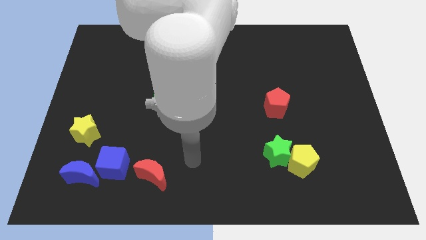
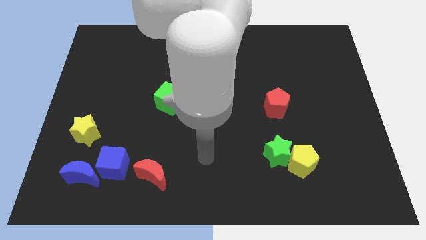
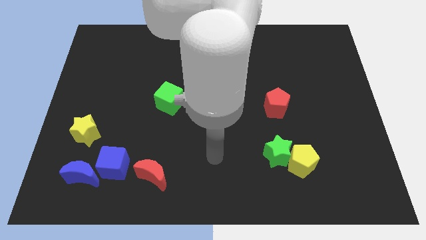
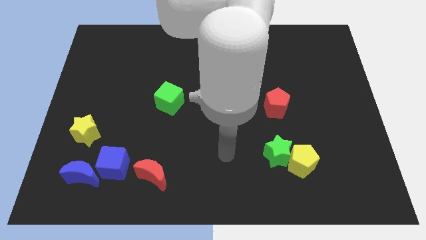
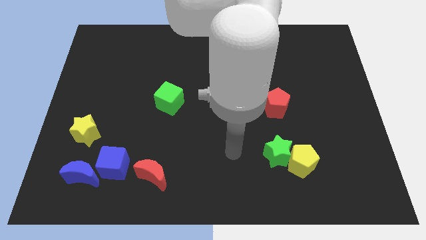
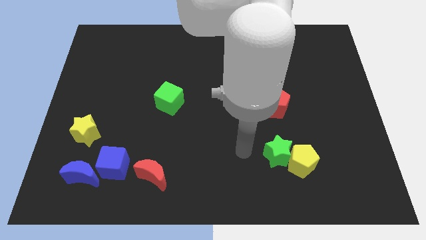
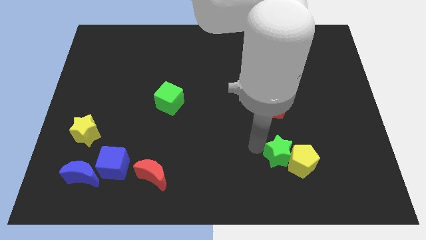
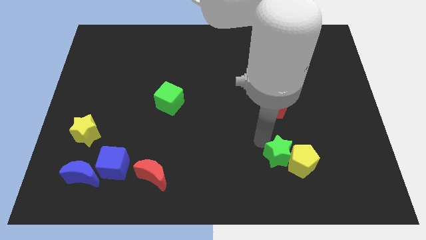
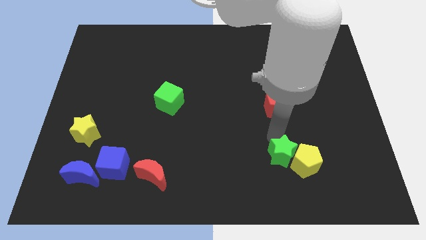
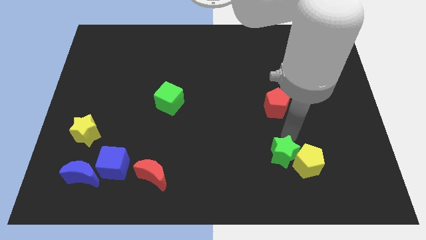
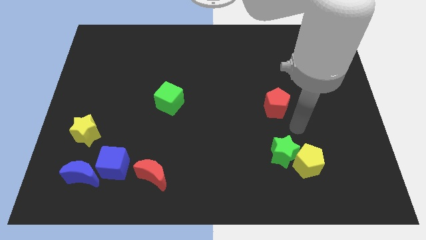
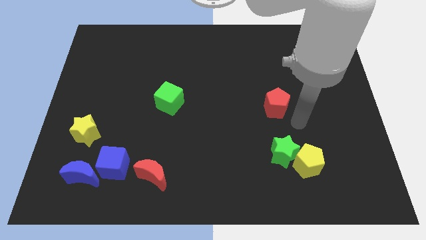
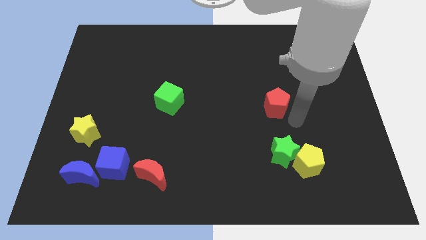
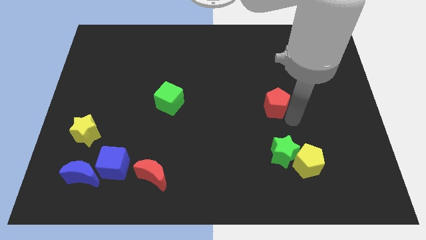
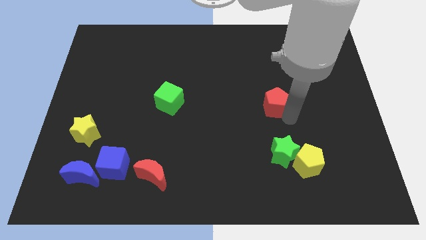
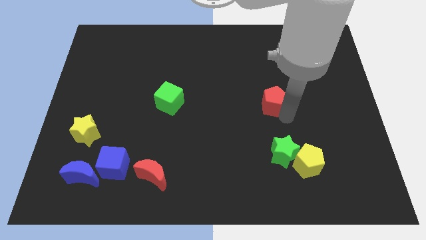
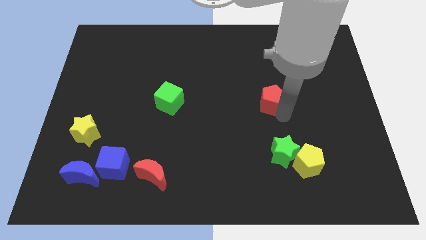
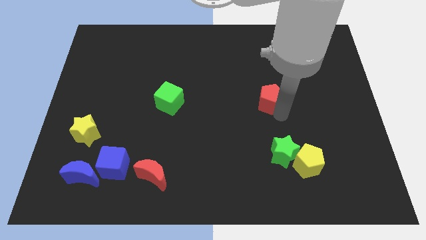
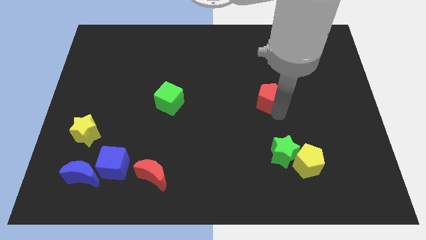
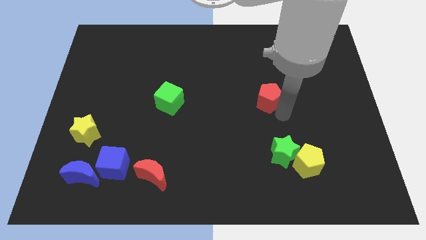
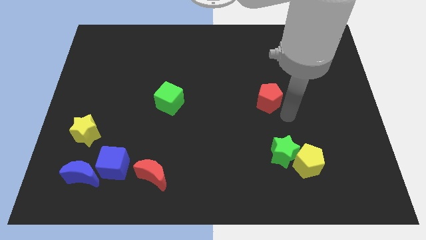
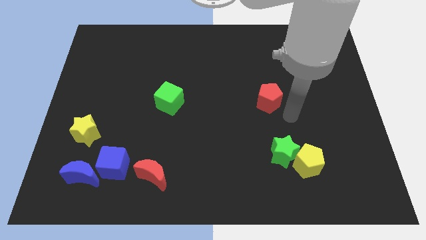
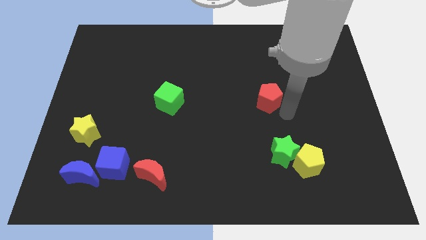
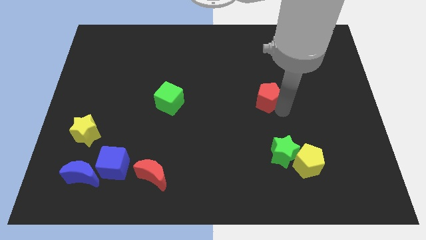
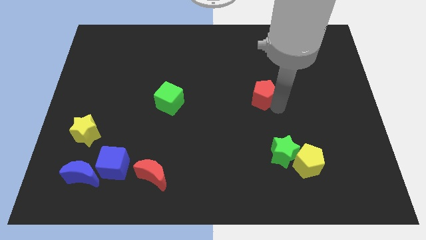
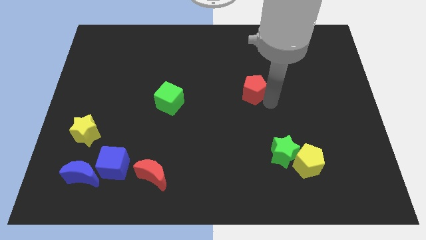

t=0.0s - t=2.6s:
move the red pentagon somewhat diagonally upwards and to the left

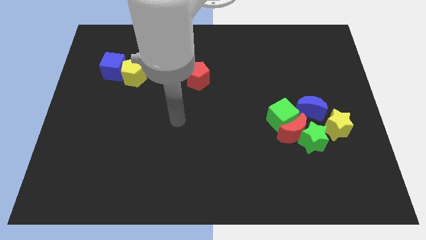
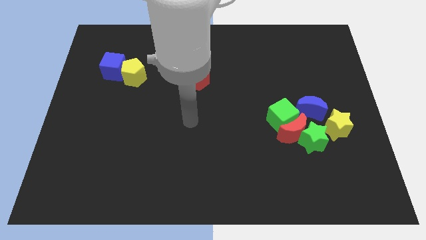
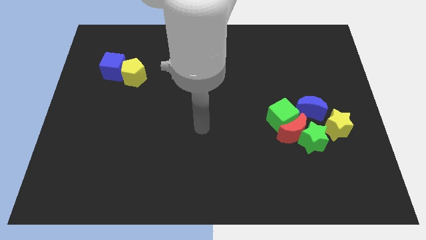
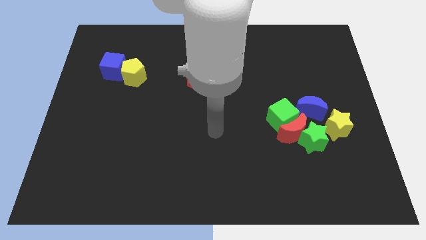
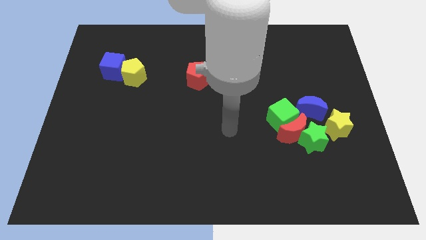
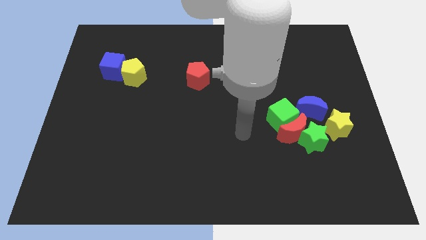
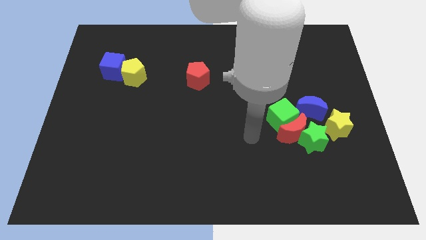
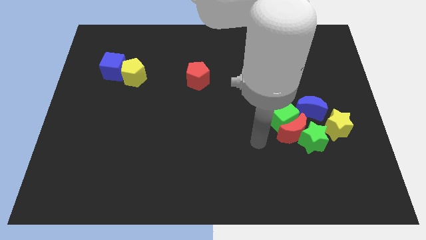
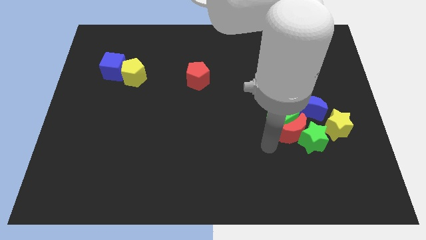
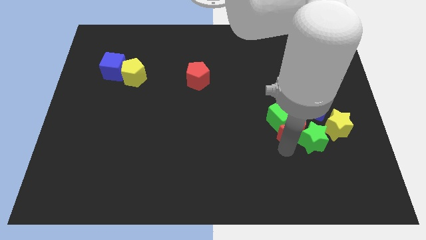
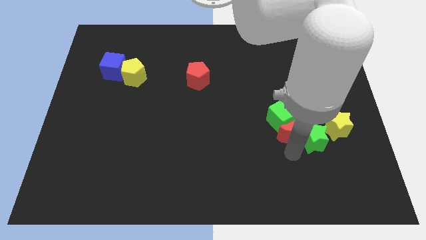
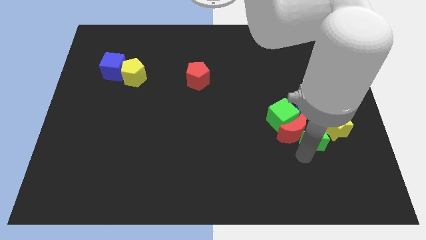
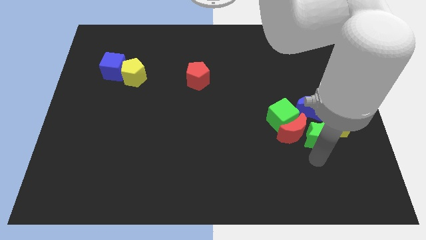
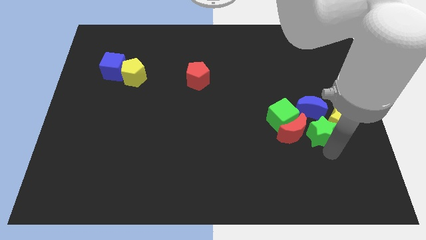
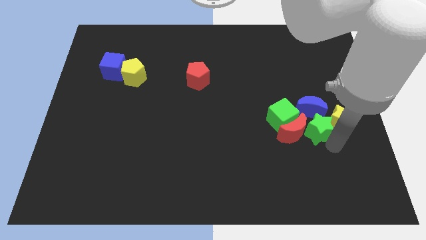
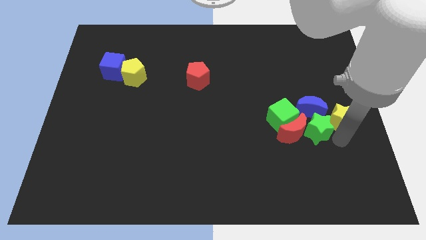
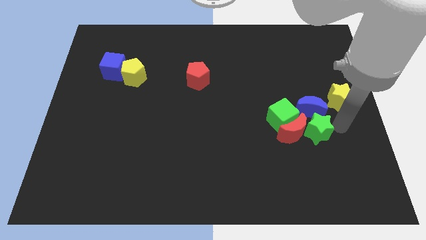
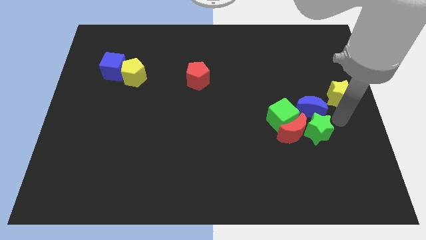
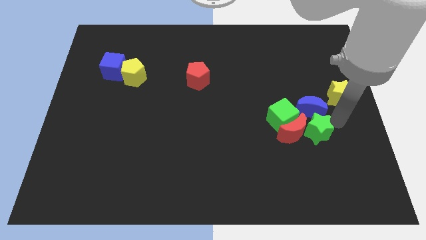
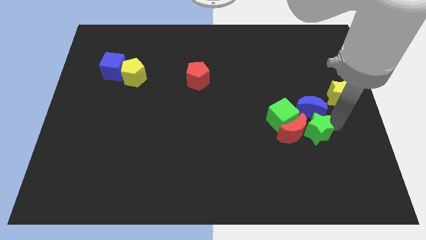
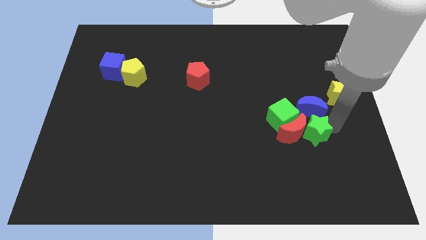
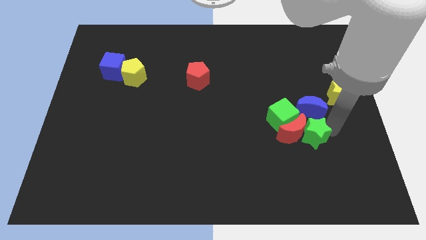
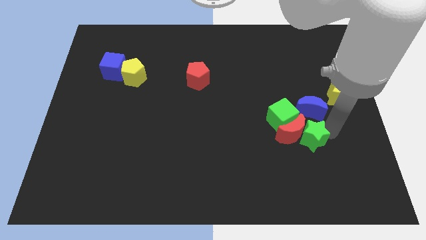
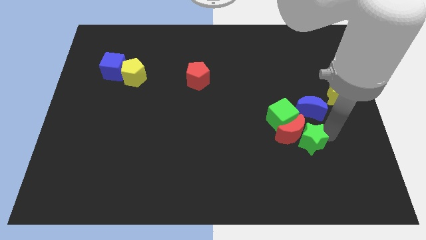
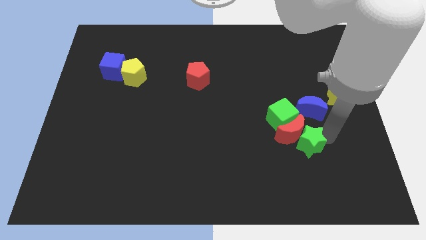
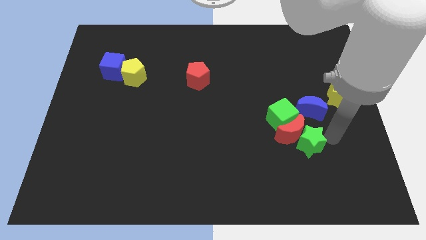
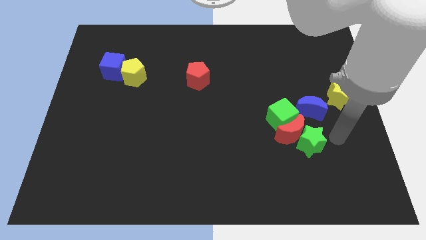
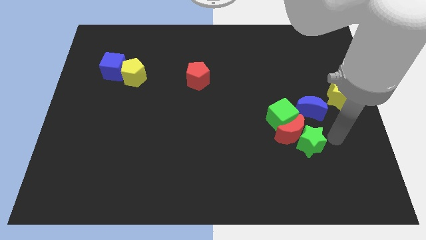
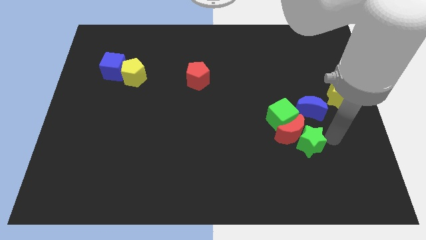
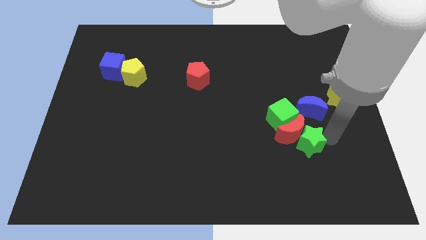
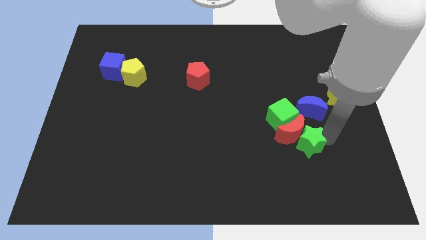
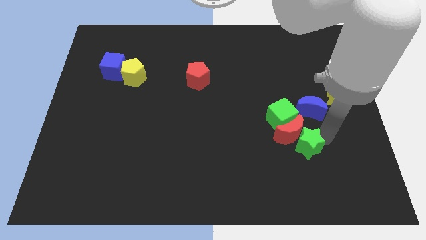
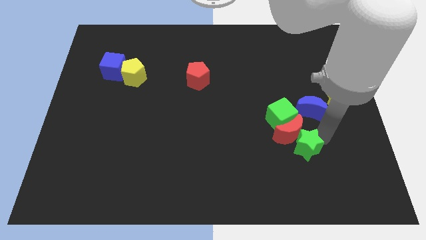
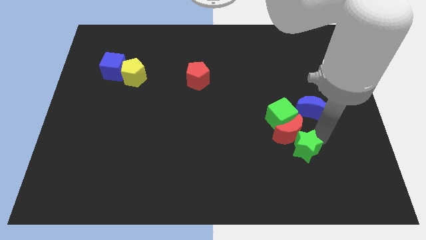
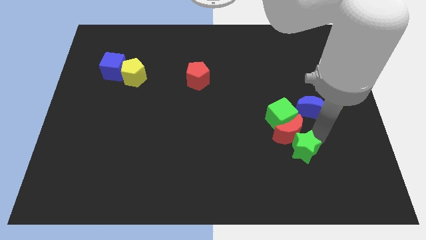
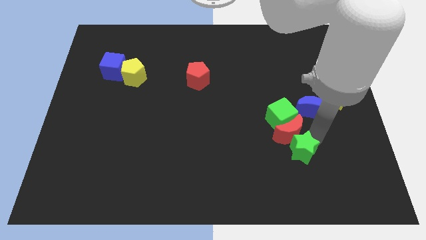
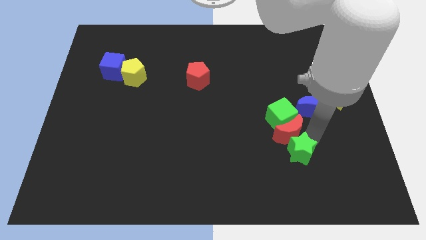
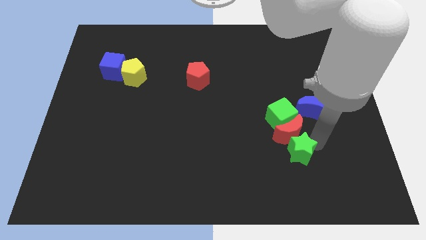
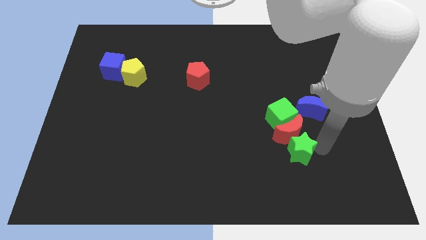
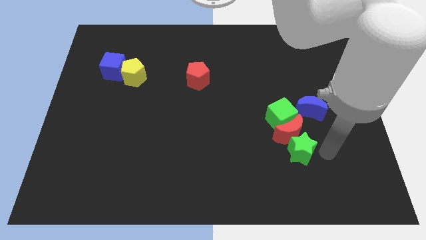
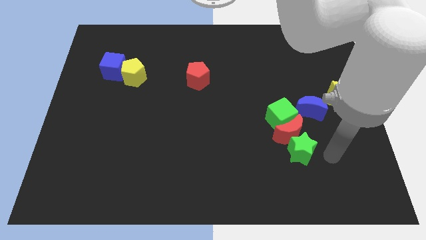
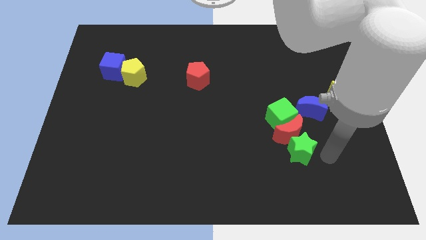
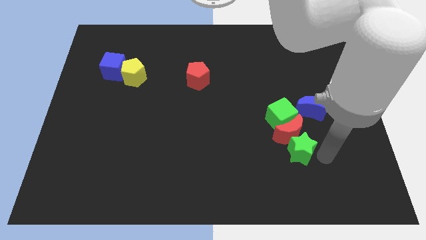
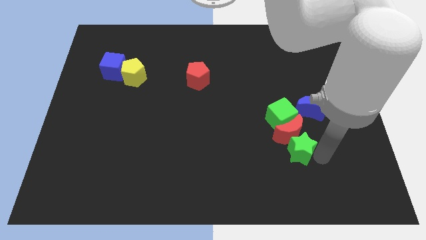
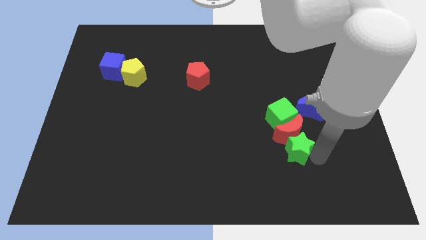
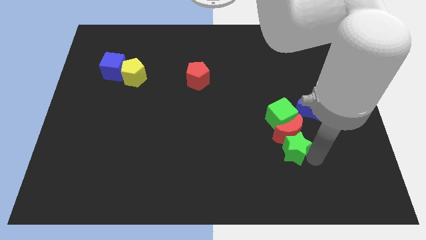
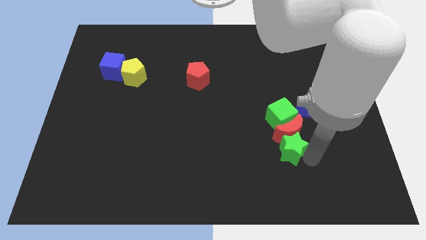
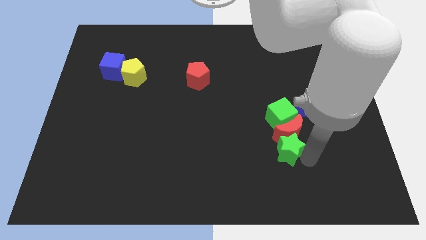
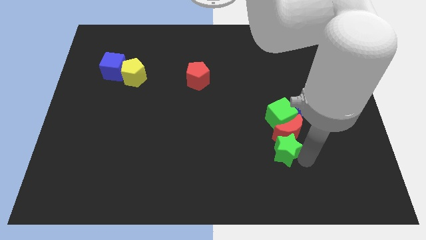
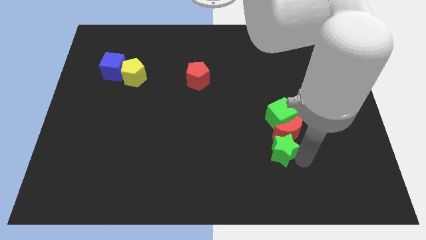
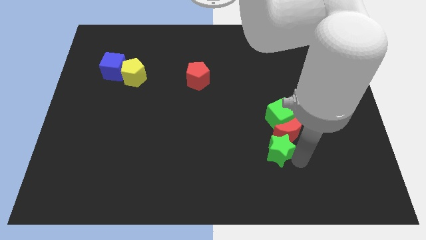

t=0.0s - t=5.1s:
move the green star somewhat left

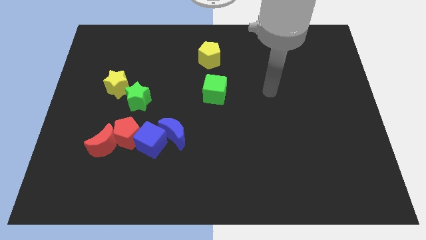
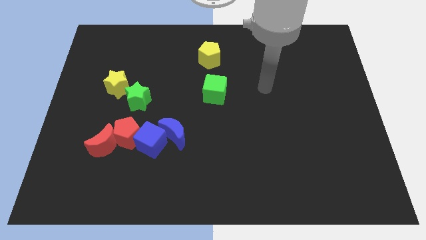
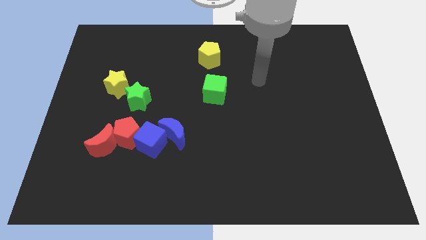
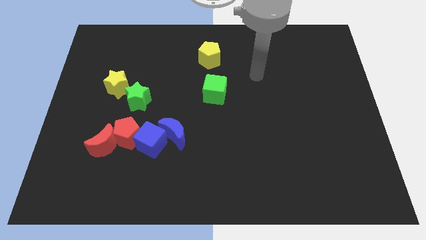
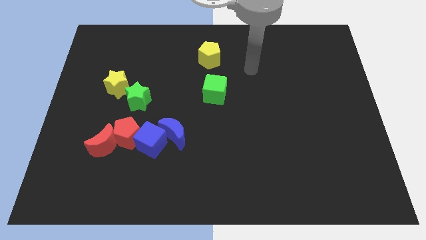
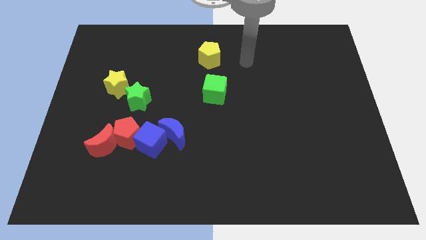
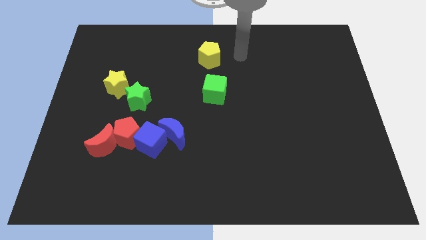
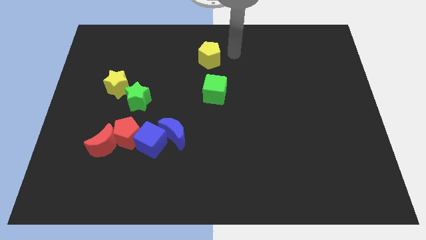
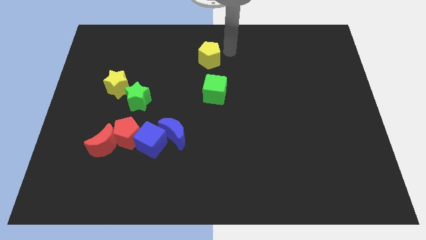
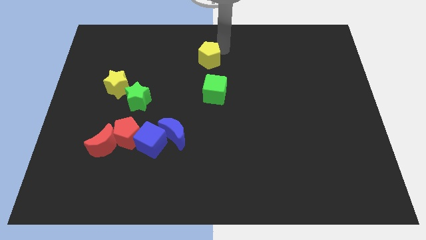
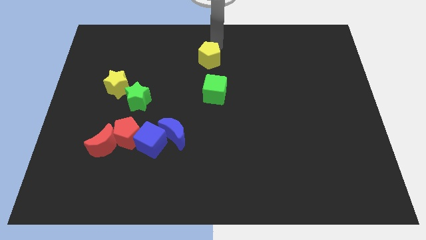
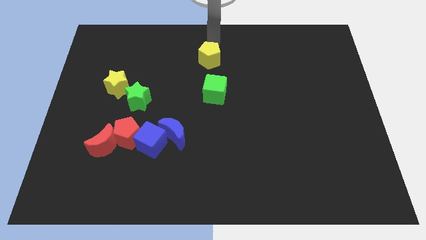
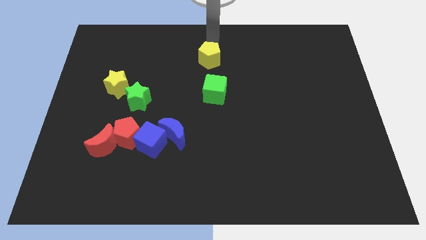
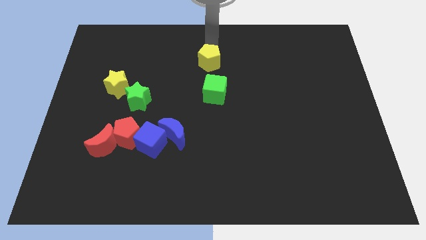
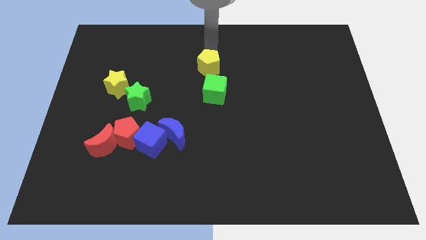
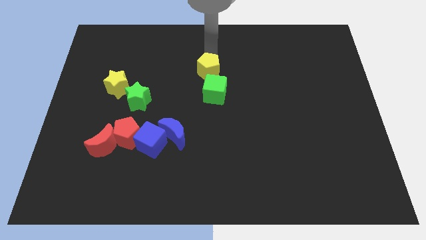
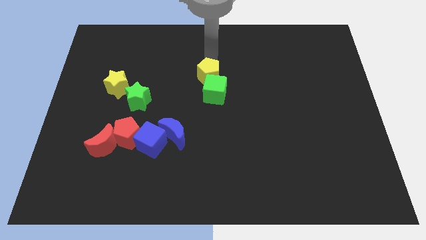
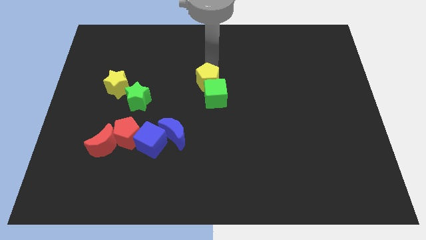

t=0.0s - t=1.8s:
push the yellow pentagon a little bit downwards
